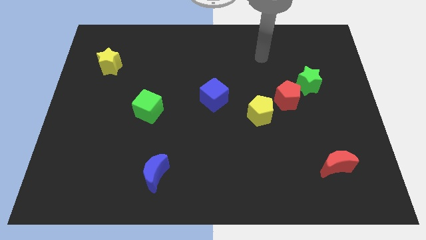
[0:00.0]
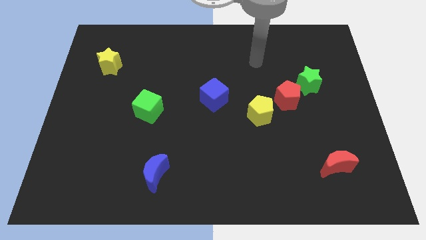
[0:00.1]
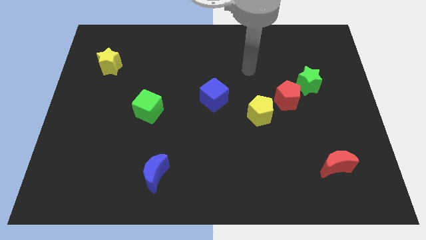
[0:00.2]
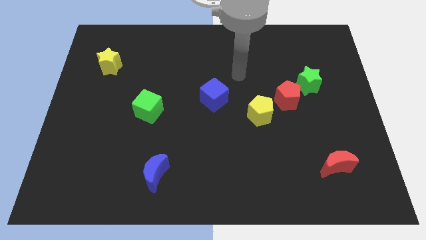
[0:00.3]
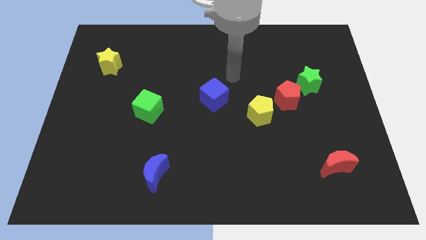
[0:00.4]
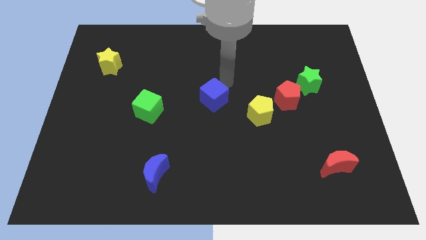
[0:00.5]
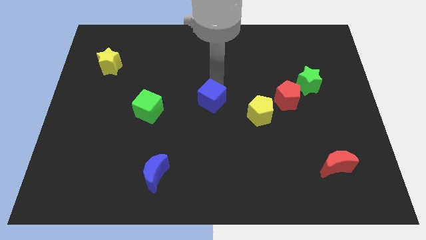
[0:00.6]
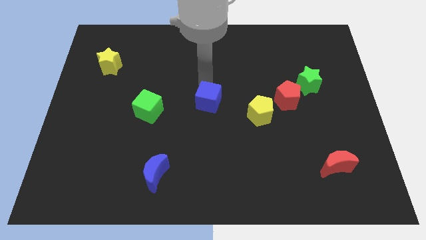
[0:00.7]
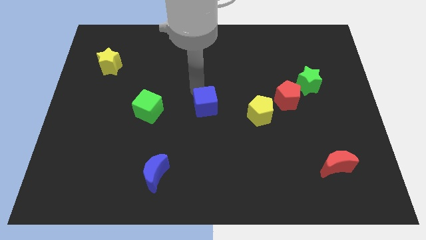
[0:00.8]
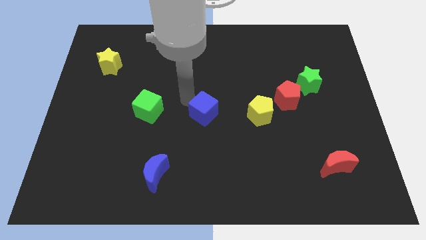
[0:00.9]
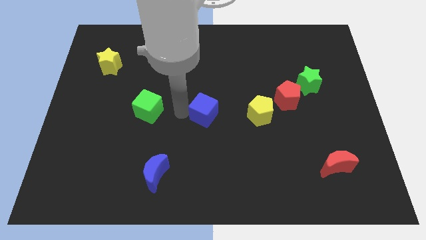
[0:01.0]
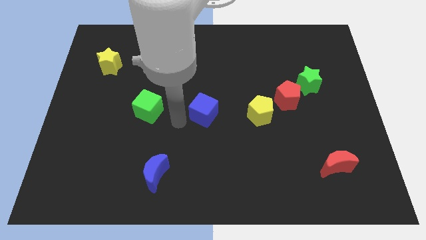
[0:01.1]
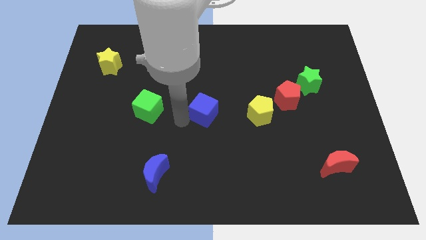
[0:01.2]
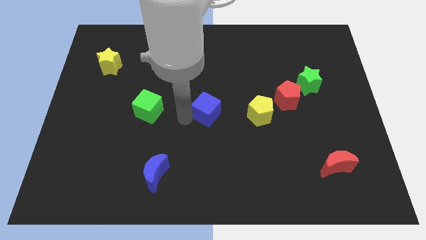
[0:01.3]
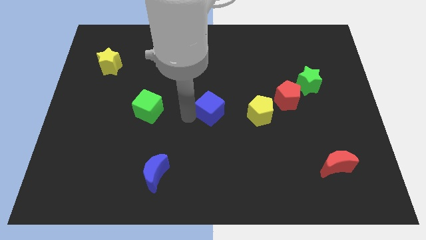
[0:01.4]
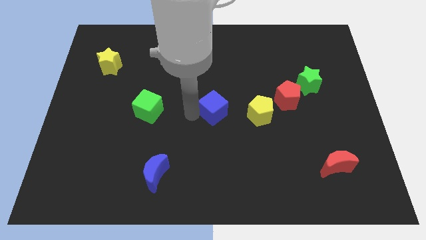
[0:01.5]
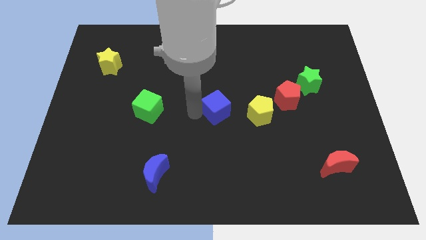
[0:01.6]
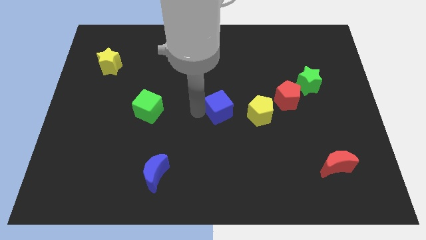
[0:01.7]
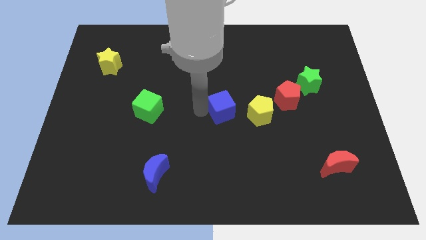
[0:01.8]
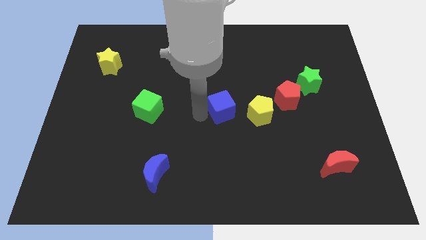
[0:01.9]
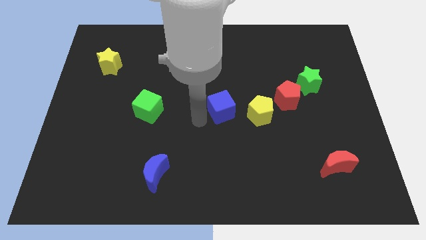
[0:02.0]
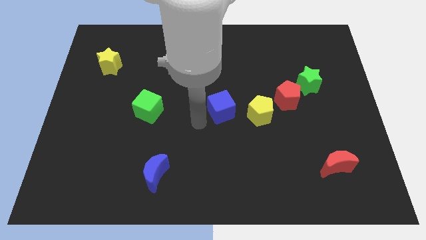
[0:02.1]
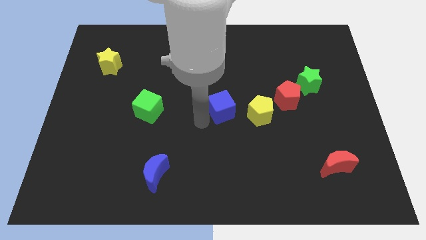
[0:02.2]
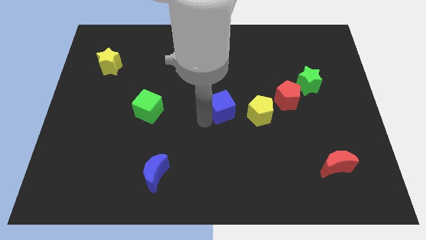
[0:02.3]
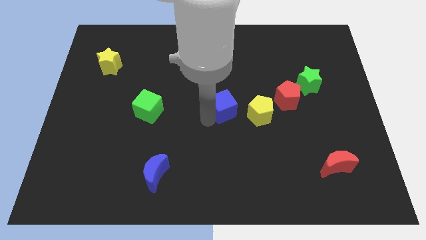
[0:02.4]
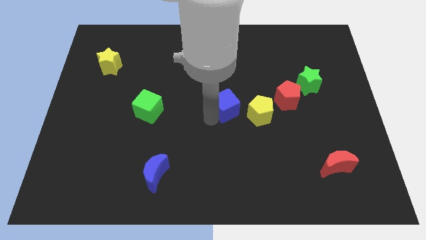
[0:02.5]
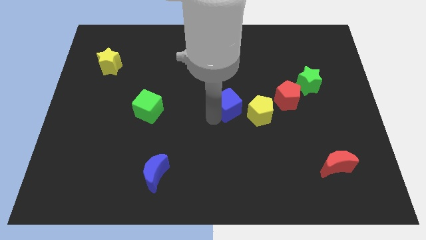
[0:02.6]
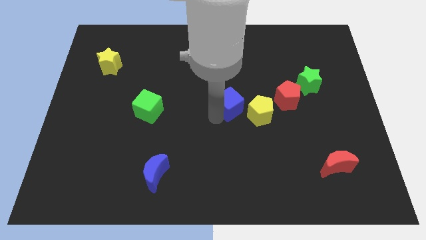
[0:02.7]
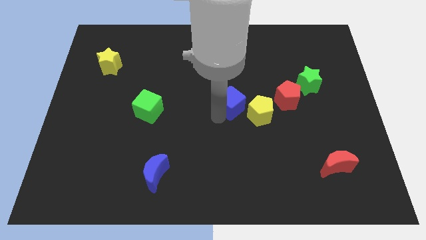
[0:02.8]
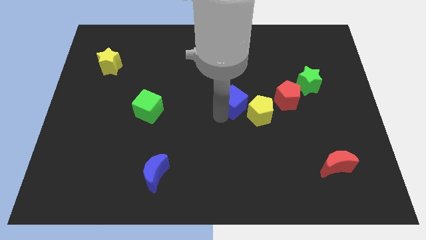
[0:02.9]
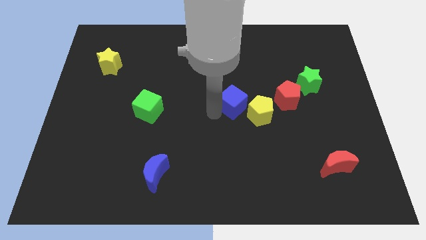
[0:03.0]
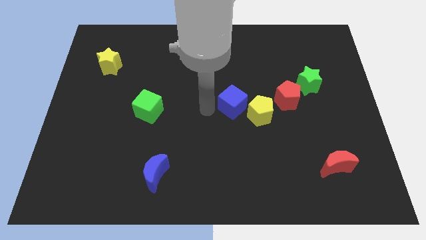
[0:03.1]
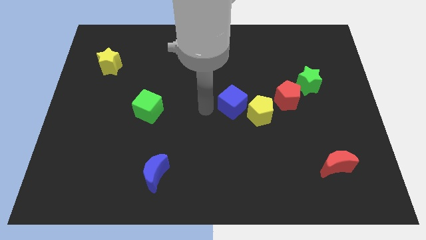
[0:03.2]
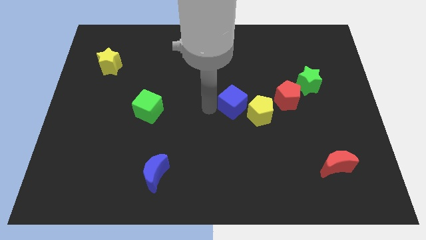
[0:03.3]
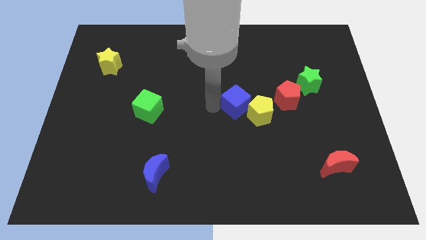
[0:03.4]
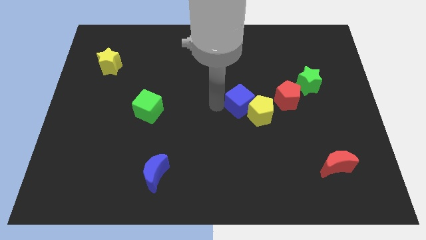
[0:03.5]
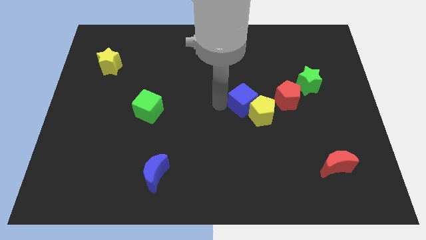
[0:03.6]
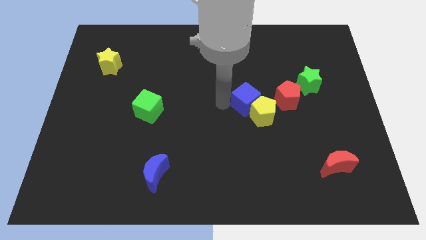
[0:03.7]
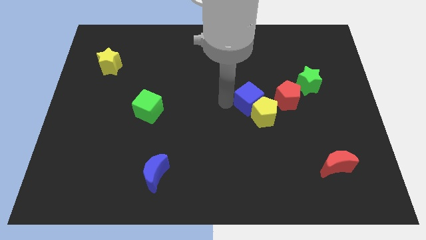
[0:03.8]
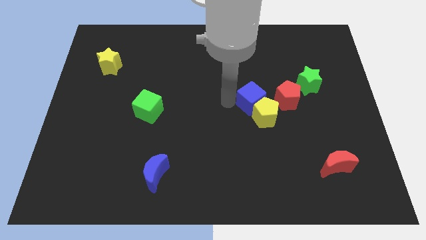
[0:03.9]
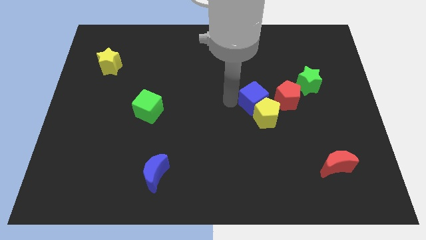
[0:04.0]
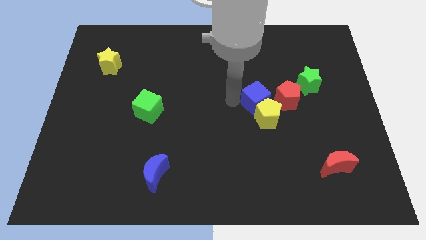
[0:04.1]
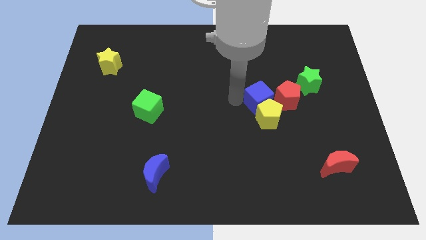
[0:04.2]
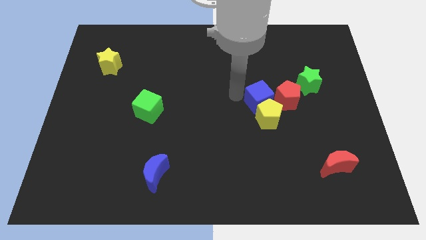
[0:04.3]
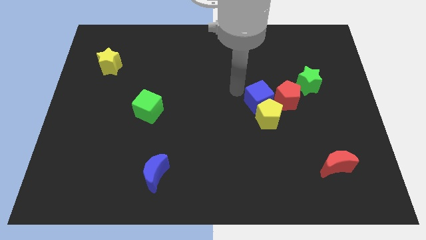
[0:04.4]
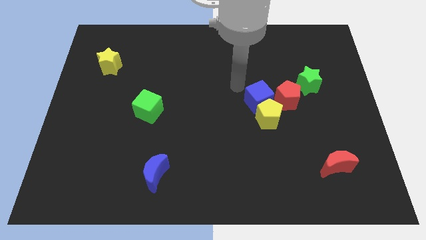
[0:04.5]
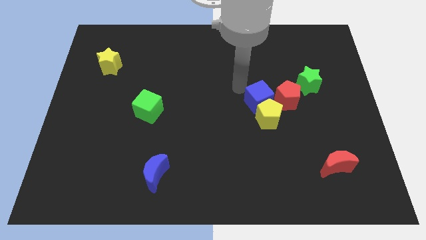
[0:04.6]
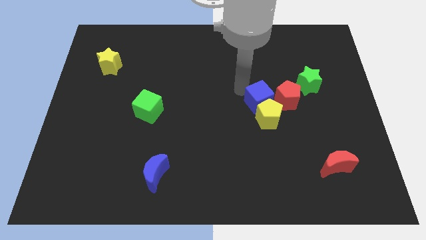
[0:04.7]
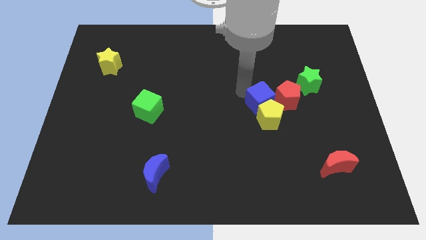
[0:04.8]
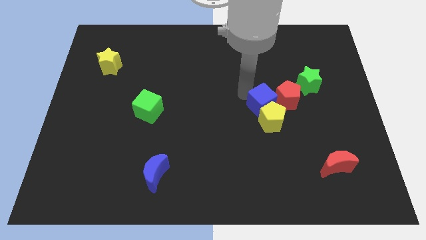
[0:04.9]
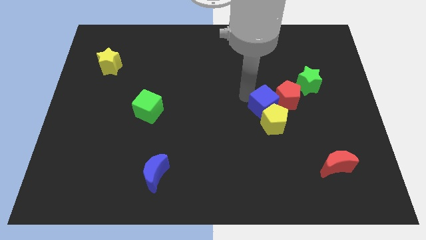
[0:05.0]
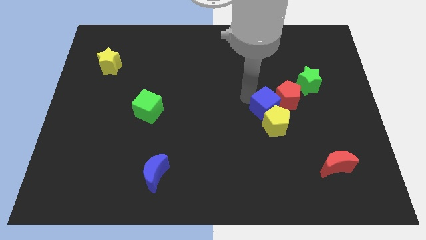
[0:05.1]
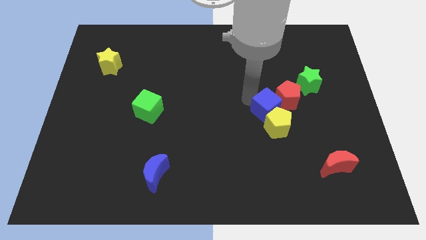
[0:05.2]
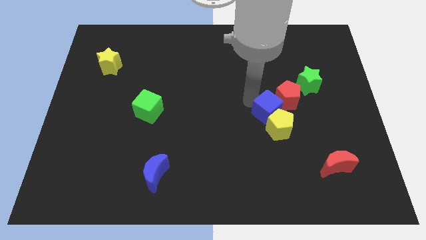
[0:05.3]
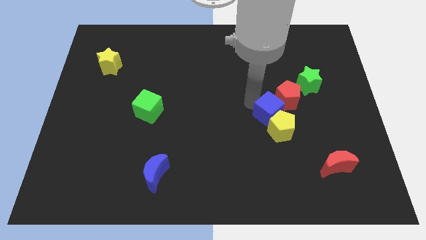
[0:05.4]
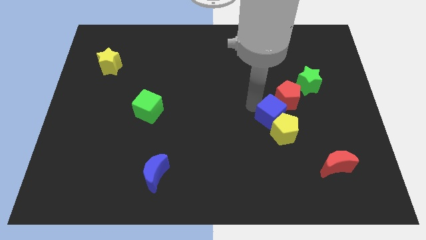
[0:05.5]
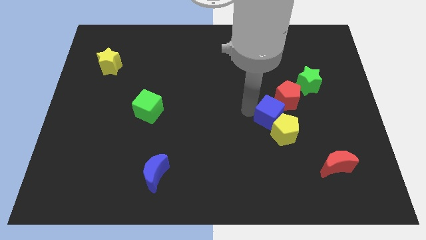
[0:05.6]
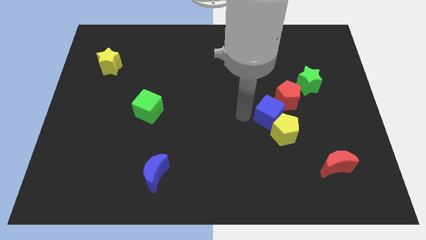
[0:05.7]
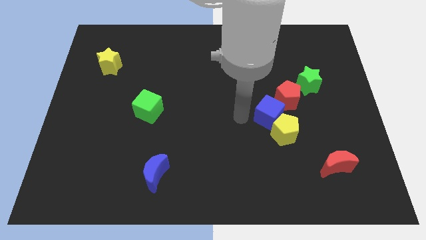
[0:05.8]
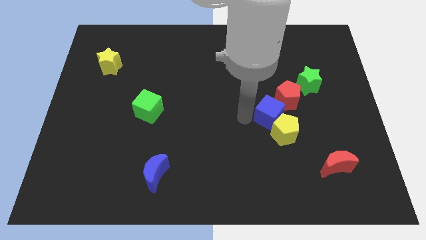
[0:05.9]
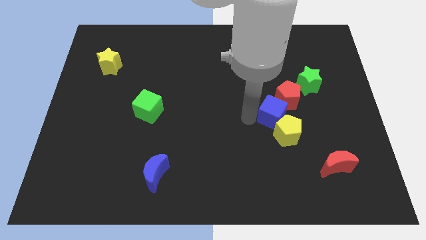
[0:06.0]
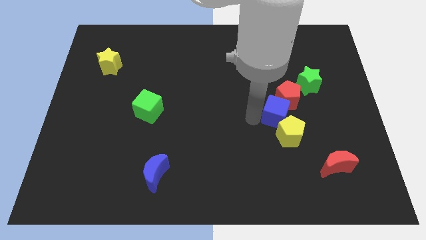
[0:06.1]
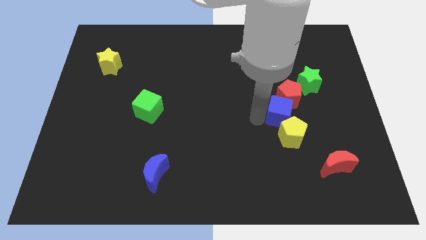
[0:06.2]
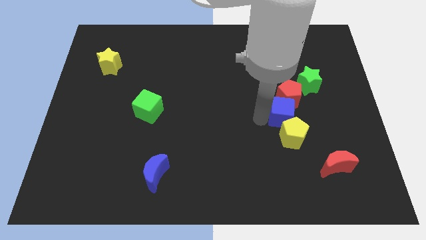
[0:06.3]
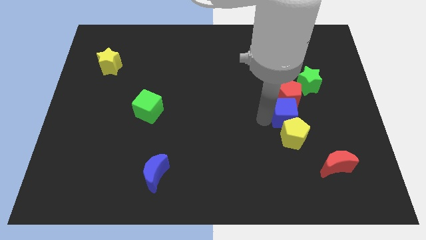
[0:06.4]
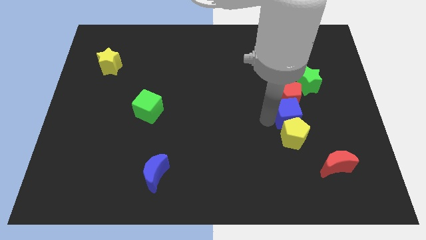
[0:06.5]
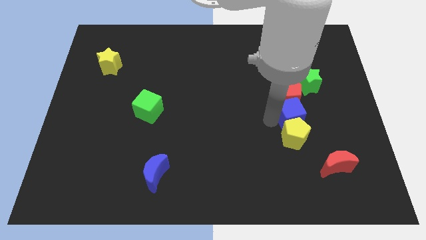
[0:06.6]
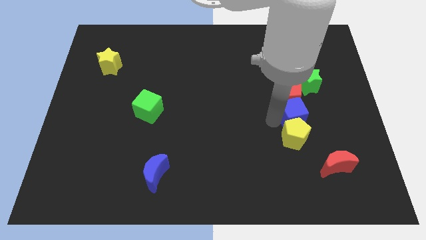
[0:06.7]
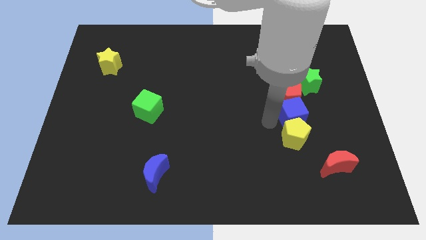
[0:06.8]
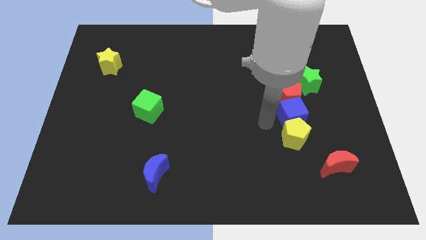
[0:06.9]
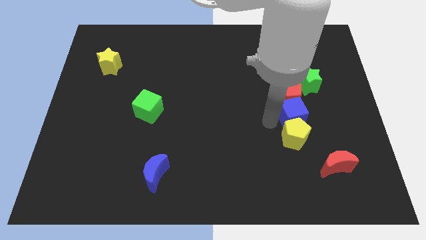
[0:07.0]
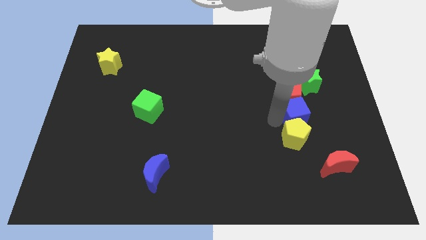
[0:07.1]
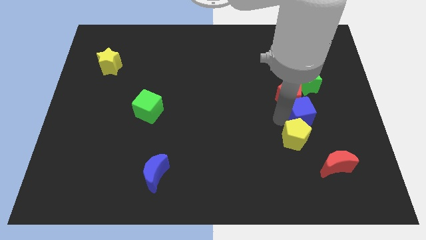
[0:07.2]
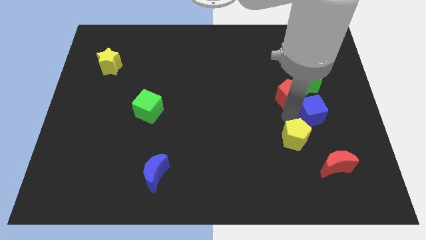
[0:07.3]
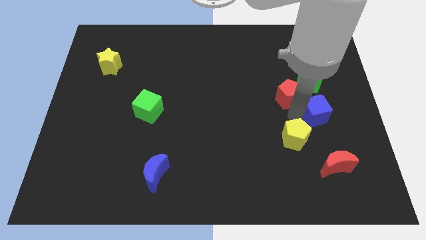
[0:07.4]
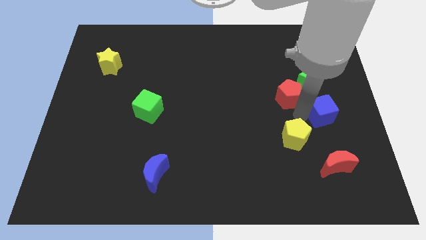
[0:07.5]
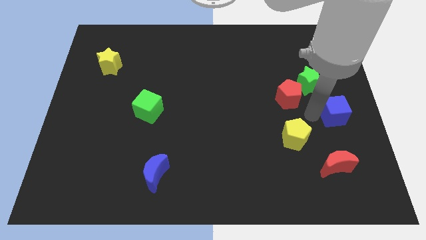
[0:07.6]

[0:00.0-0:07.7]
push the blue cube to the center right
